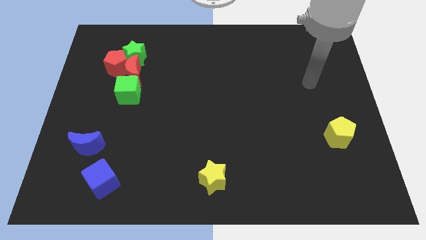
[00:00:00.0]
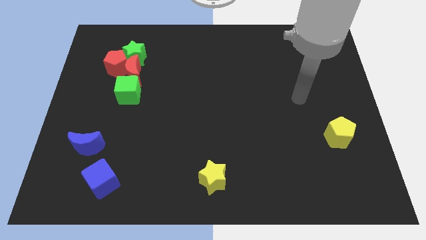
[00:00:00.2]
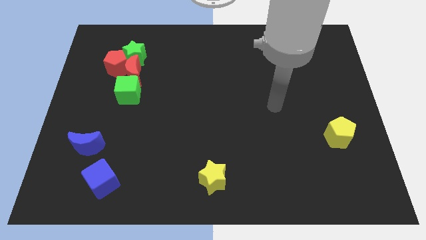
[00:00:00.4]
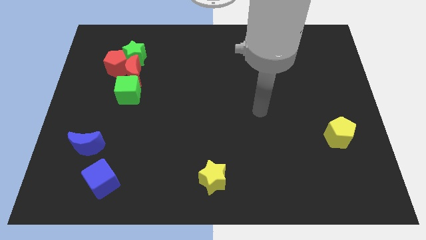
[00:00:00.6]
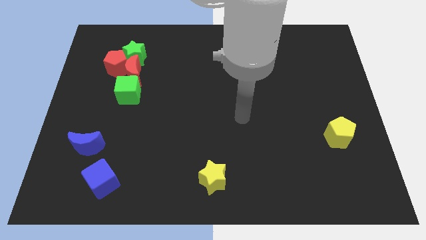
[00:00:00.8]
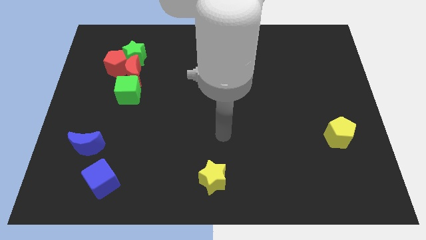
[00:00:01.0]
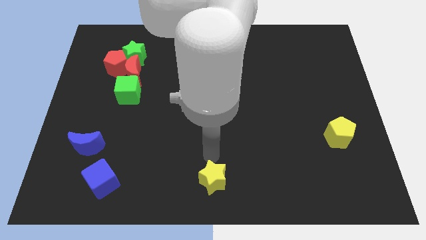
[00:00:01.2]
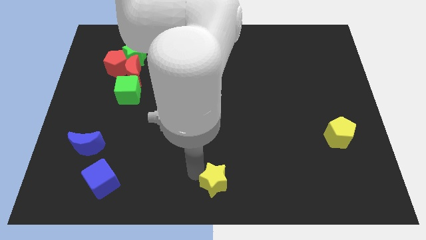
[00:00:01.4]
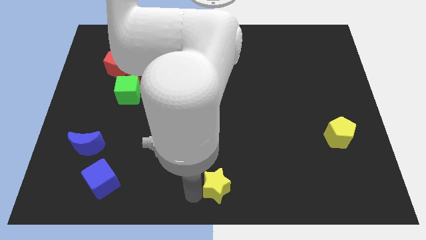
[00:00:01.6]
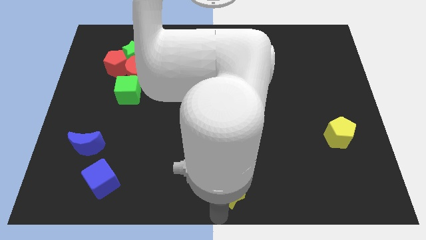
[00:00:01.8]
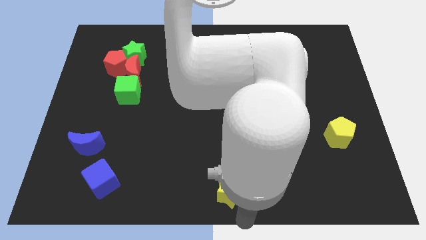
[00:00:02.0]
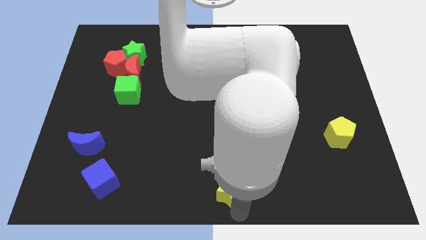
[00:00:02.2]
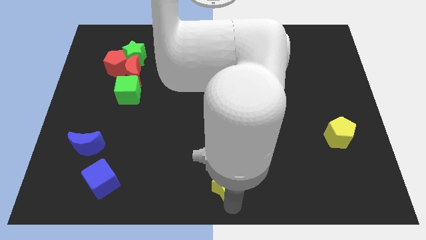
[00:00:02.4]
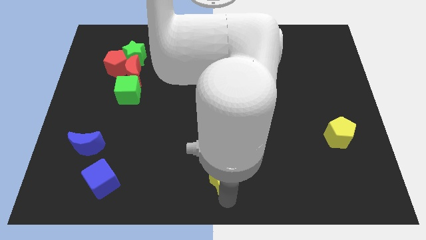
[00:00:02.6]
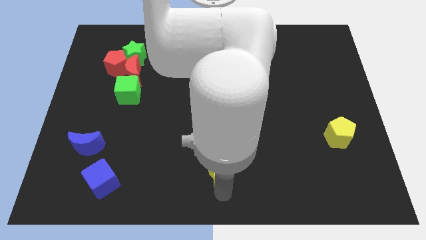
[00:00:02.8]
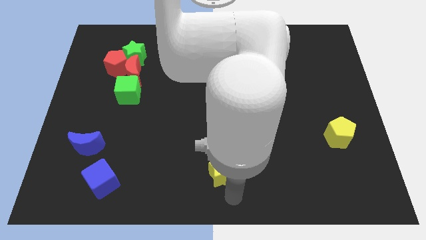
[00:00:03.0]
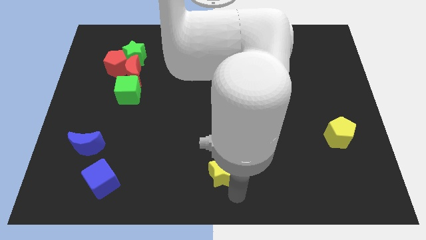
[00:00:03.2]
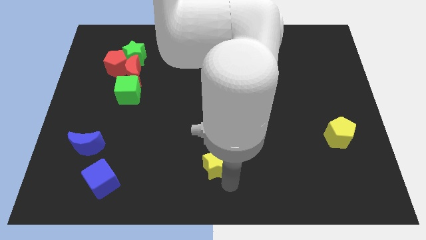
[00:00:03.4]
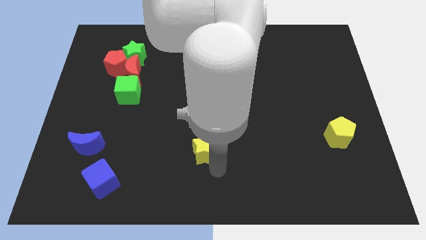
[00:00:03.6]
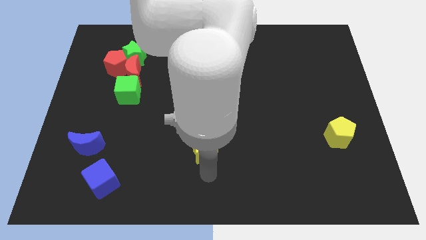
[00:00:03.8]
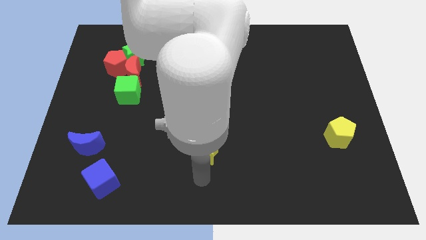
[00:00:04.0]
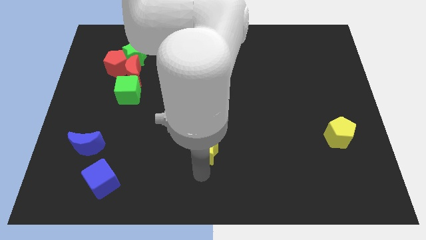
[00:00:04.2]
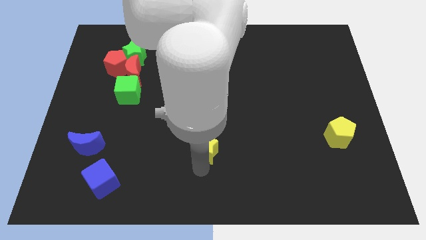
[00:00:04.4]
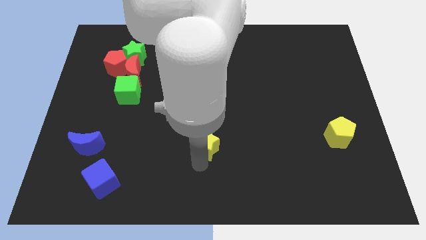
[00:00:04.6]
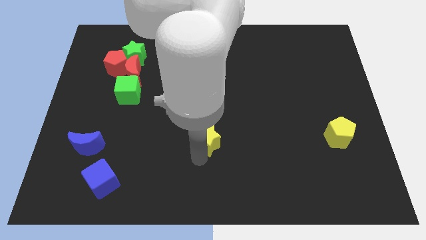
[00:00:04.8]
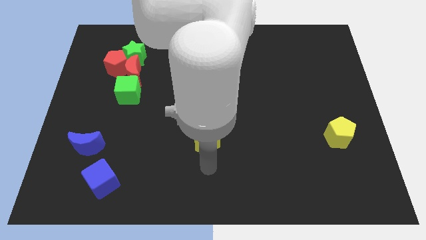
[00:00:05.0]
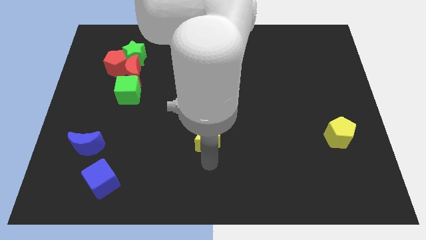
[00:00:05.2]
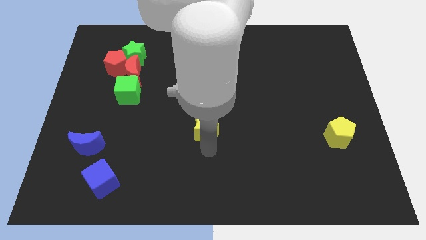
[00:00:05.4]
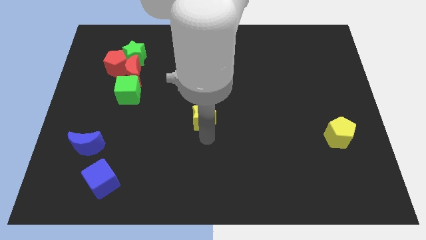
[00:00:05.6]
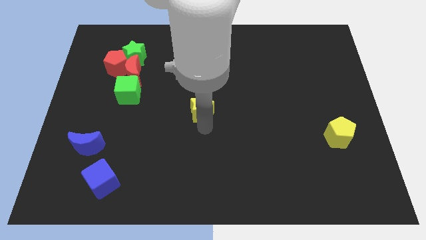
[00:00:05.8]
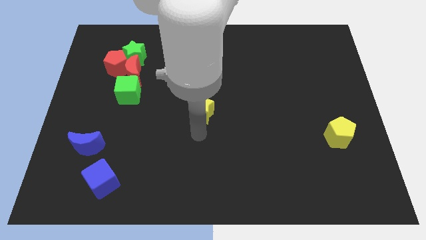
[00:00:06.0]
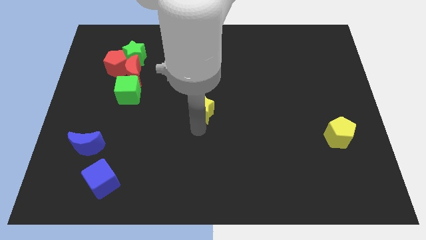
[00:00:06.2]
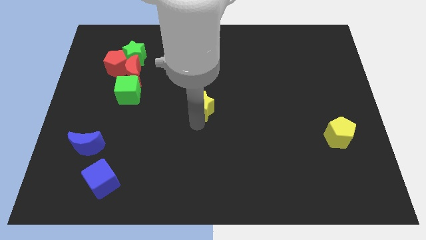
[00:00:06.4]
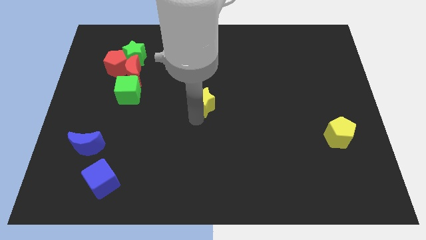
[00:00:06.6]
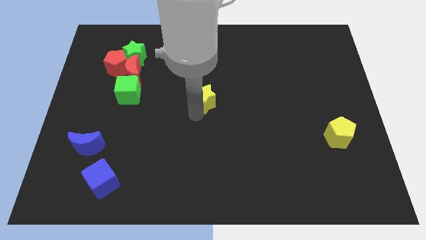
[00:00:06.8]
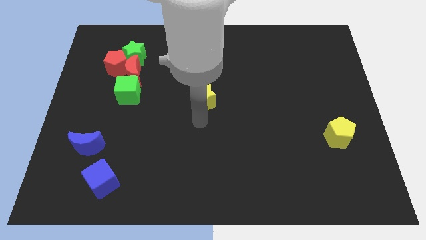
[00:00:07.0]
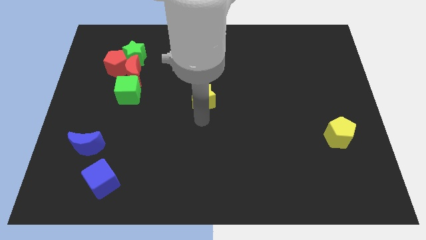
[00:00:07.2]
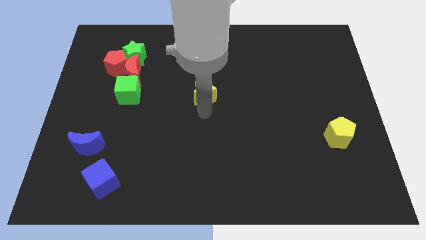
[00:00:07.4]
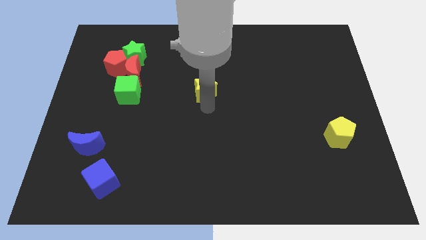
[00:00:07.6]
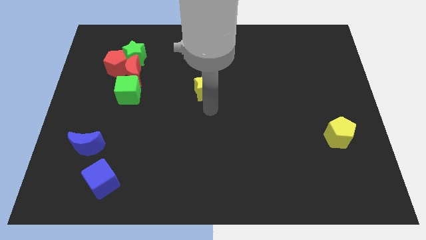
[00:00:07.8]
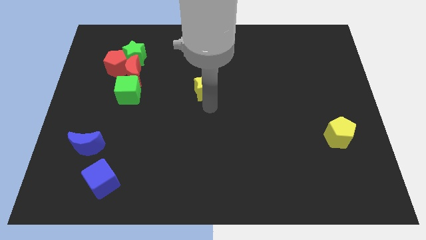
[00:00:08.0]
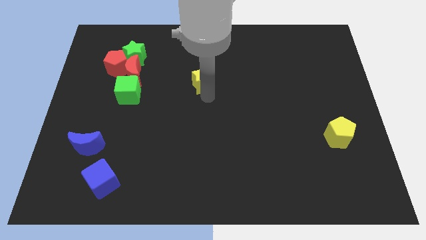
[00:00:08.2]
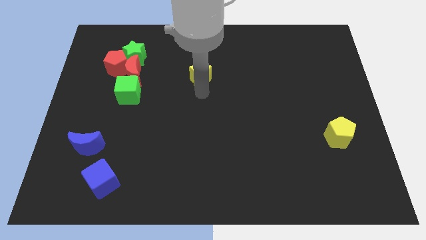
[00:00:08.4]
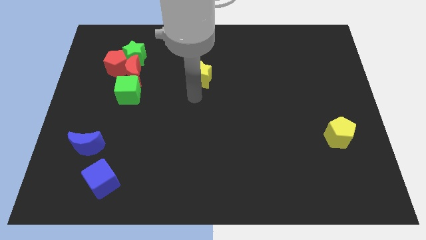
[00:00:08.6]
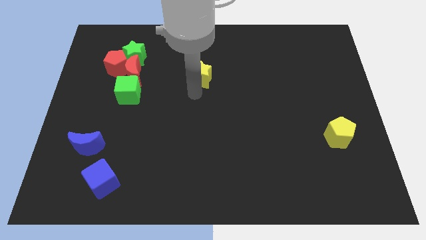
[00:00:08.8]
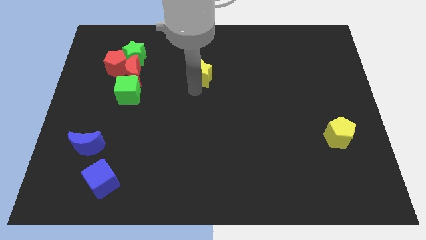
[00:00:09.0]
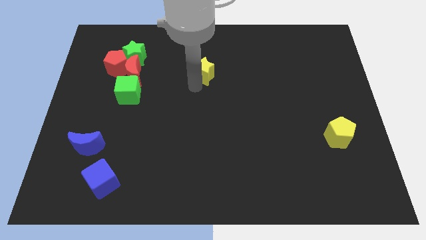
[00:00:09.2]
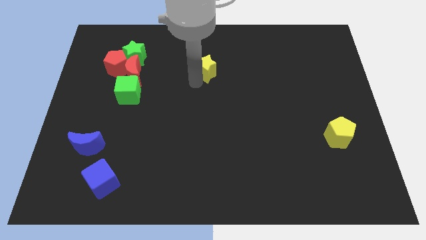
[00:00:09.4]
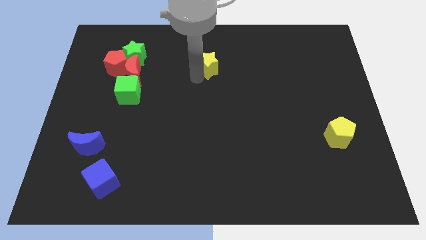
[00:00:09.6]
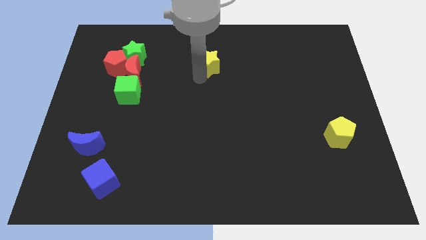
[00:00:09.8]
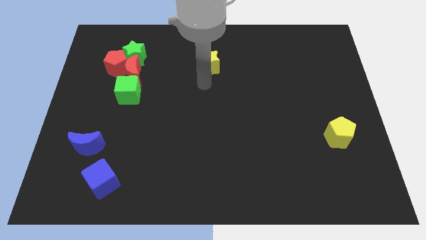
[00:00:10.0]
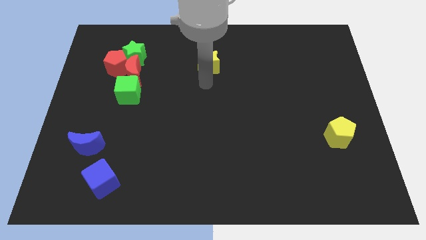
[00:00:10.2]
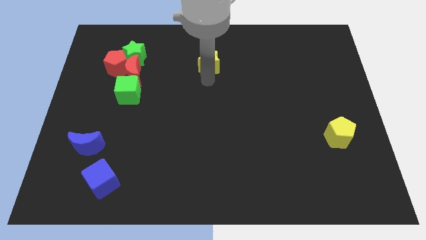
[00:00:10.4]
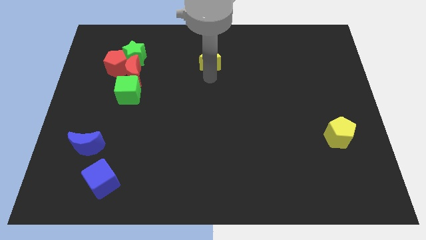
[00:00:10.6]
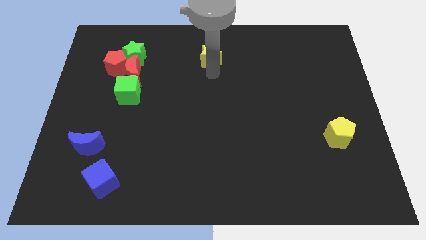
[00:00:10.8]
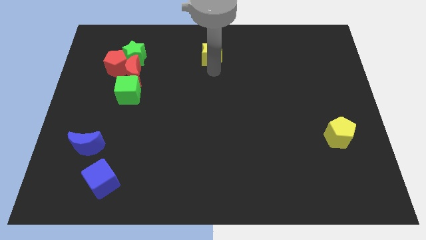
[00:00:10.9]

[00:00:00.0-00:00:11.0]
push the yellow star to the top side
